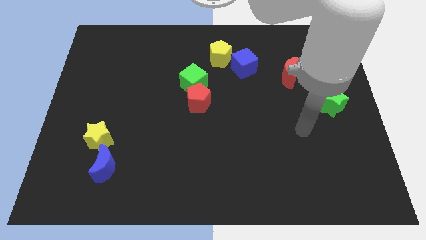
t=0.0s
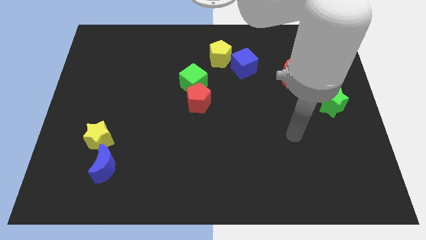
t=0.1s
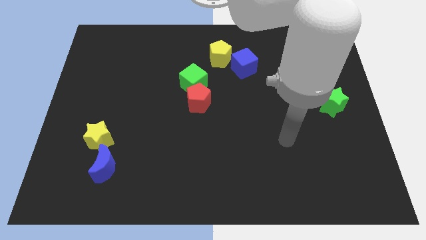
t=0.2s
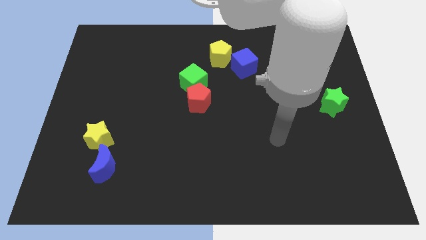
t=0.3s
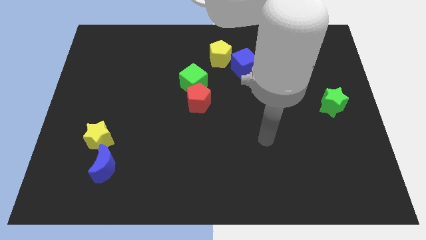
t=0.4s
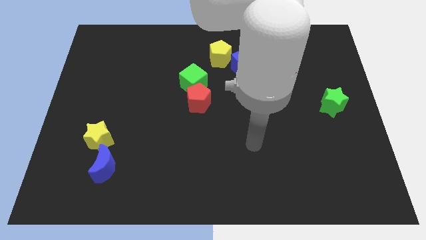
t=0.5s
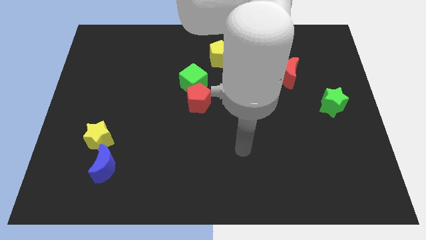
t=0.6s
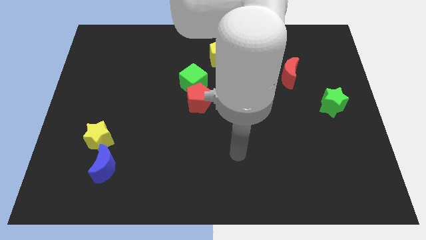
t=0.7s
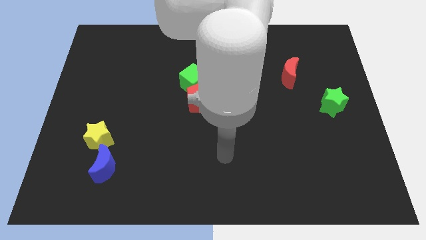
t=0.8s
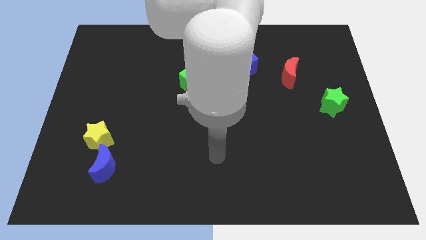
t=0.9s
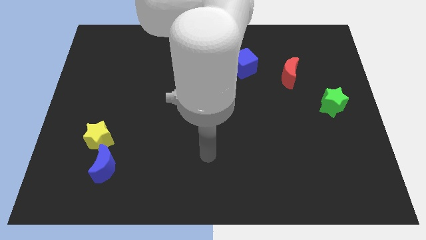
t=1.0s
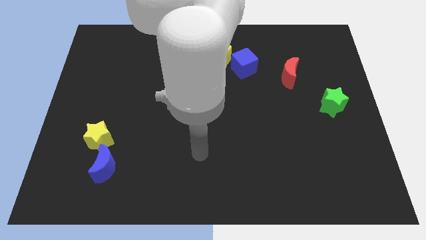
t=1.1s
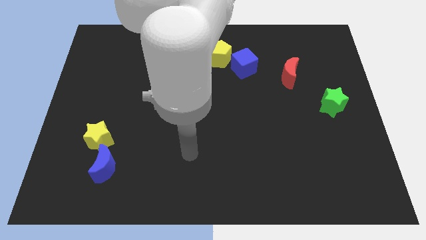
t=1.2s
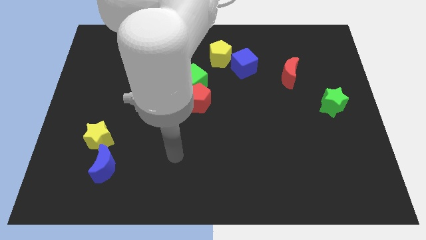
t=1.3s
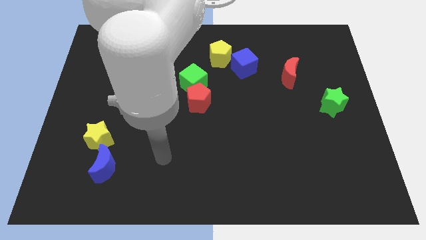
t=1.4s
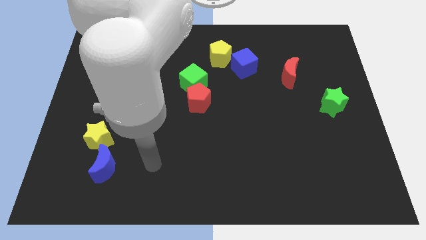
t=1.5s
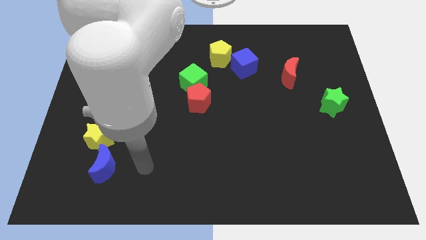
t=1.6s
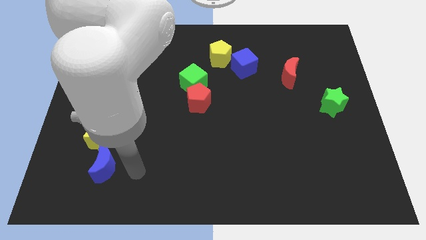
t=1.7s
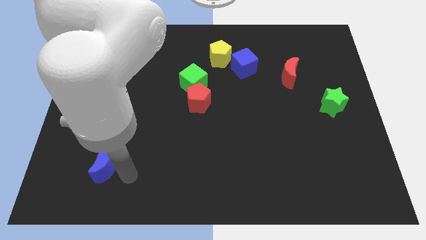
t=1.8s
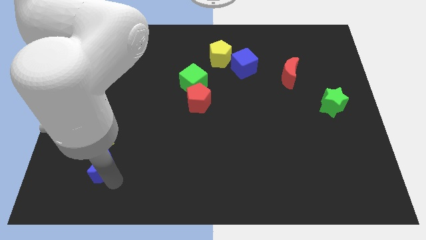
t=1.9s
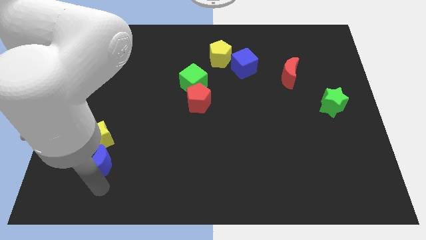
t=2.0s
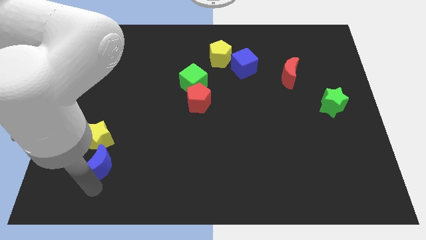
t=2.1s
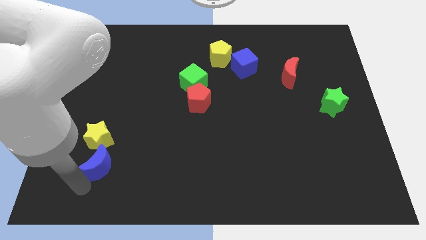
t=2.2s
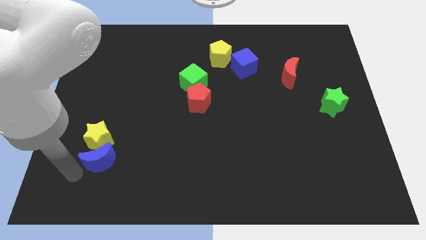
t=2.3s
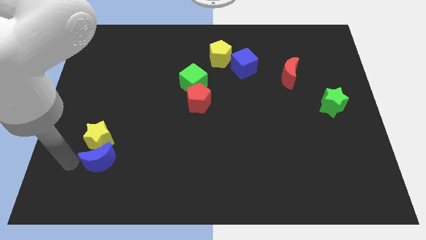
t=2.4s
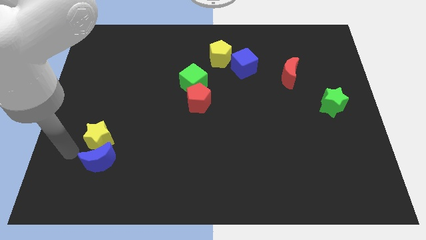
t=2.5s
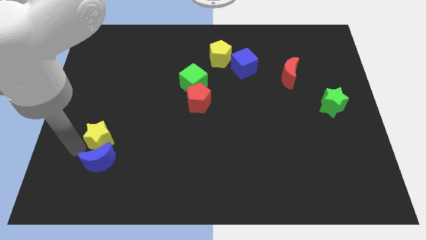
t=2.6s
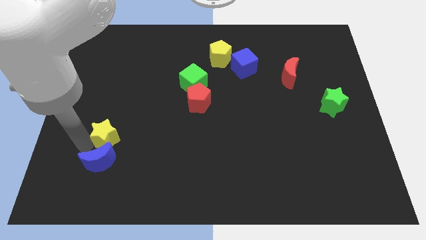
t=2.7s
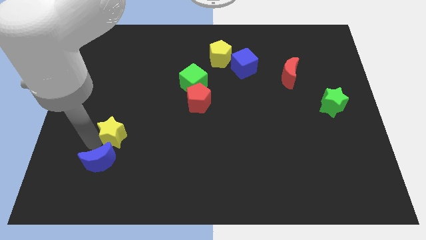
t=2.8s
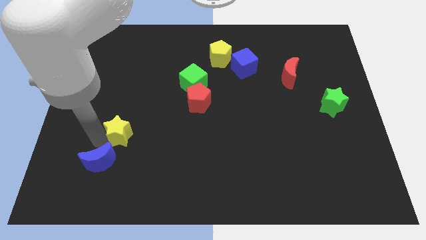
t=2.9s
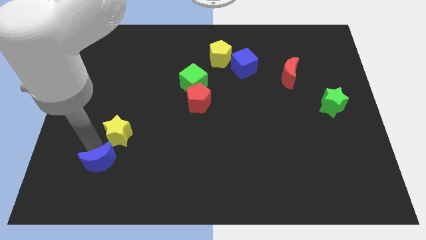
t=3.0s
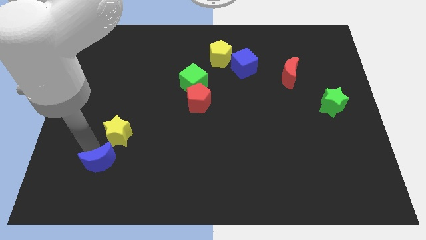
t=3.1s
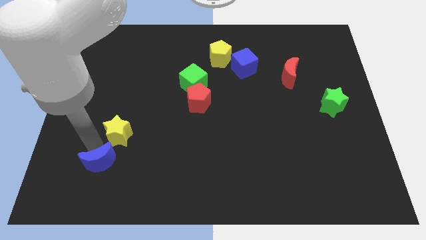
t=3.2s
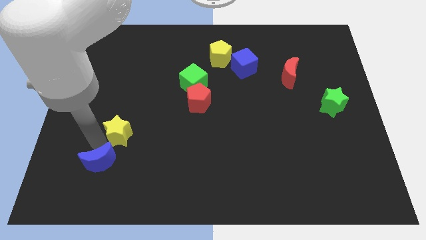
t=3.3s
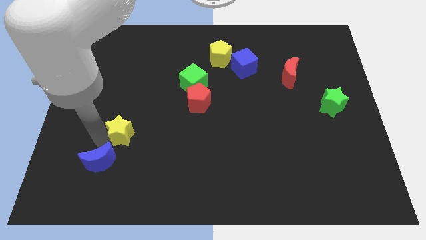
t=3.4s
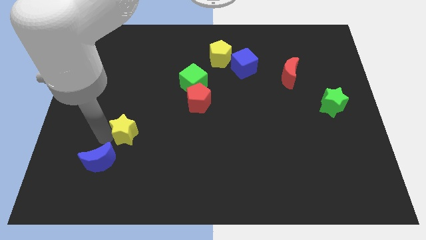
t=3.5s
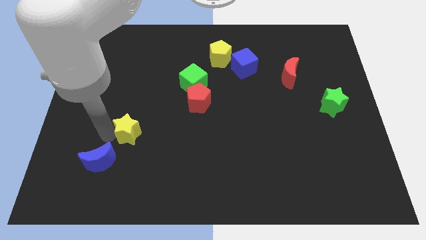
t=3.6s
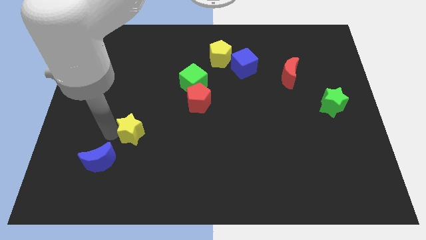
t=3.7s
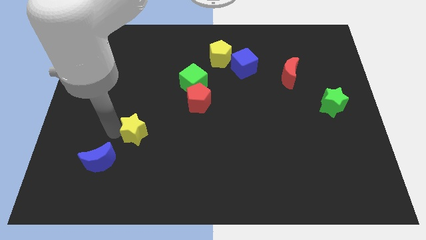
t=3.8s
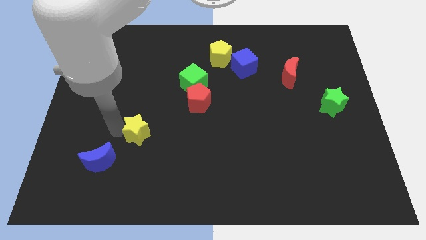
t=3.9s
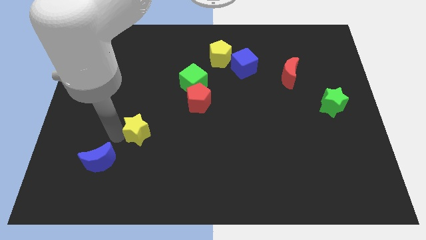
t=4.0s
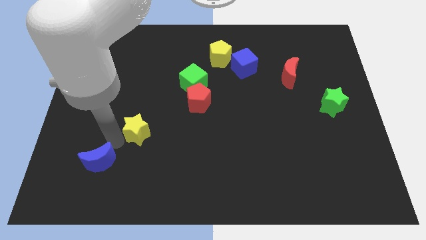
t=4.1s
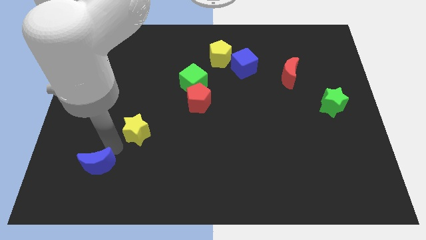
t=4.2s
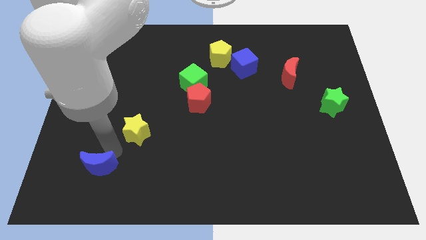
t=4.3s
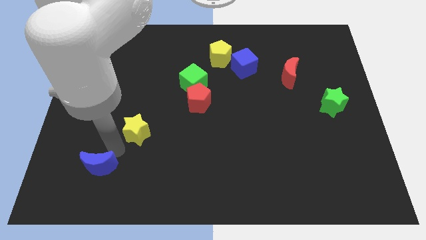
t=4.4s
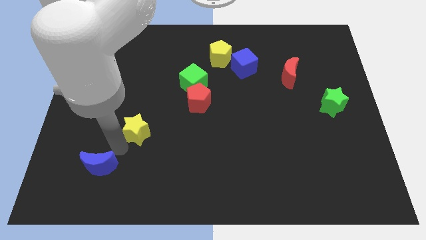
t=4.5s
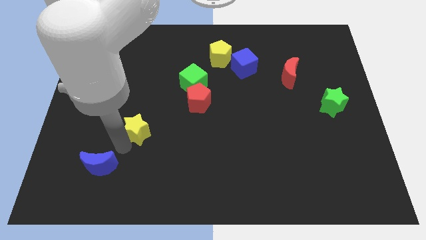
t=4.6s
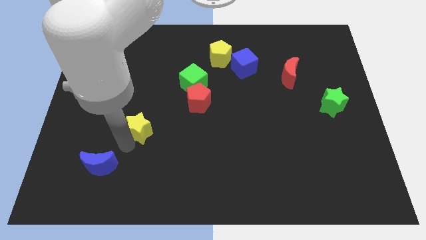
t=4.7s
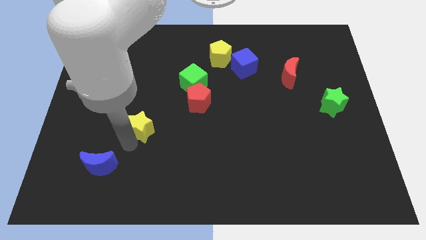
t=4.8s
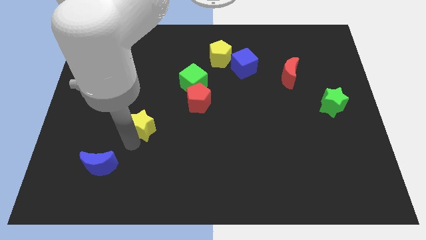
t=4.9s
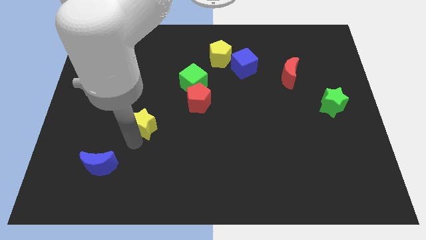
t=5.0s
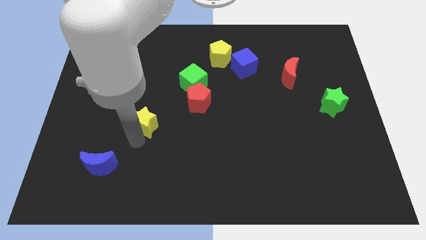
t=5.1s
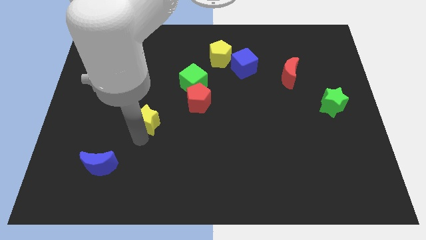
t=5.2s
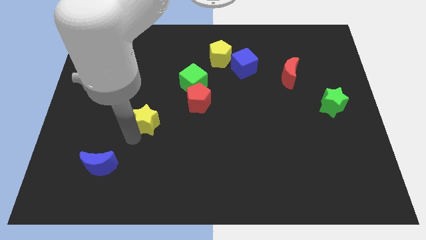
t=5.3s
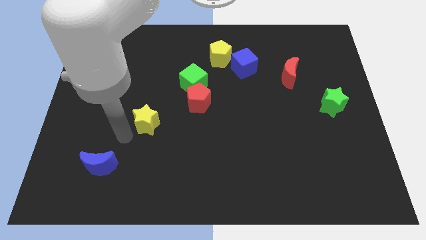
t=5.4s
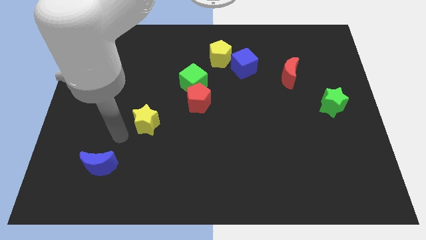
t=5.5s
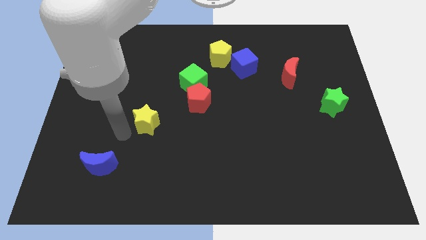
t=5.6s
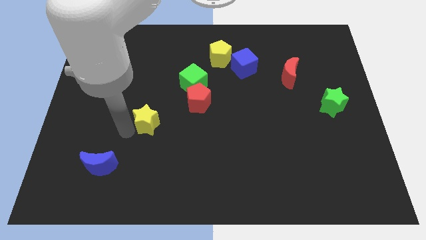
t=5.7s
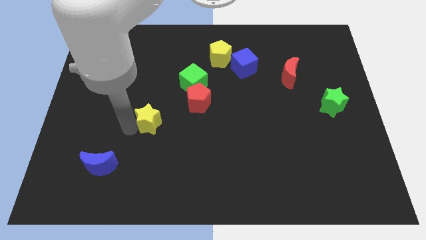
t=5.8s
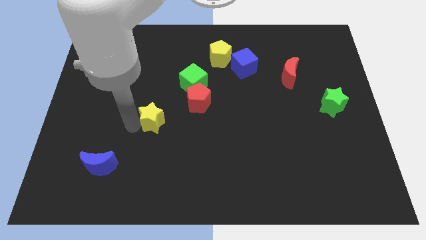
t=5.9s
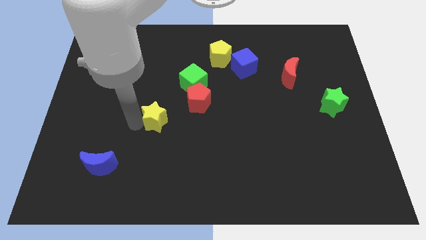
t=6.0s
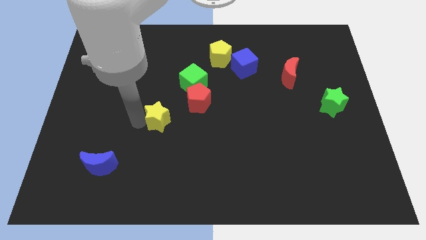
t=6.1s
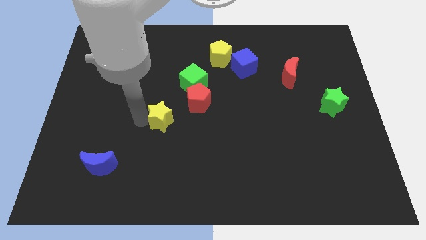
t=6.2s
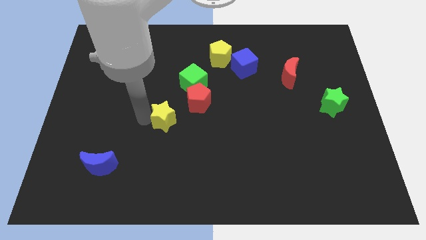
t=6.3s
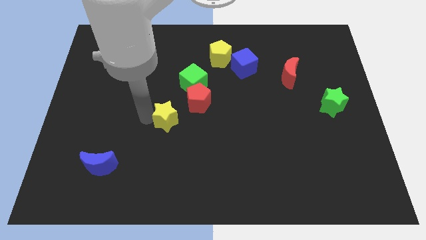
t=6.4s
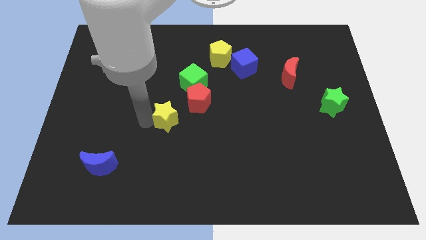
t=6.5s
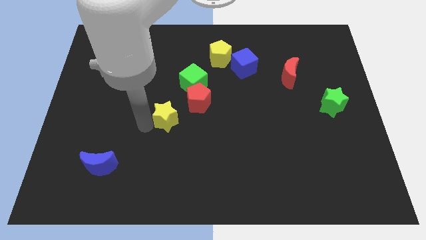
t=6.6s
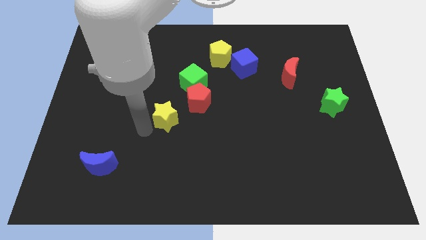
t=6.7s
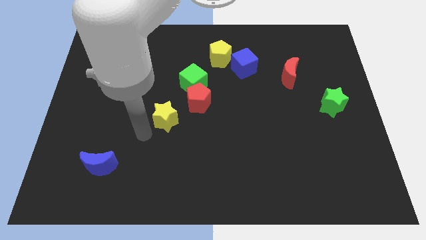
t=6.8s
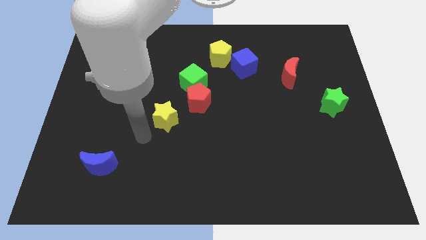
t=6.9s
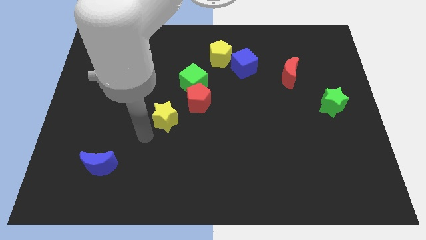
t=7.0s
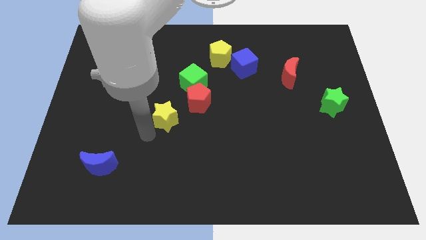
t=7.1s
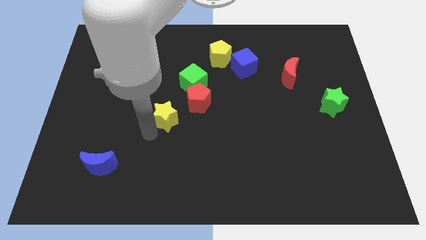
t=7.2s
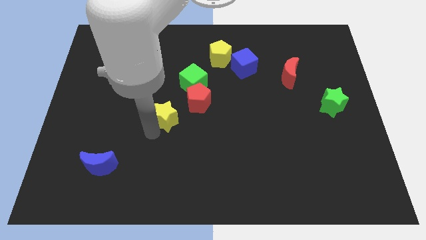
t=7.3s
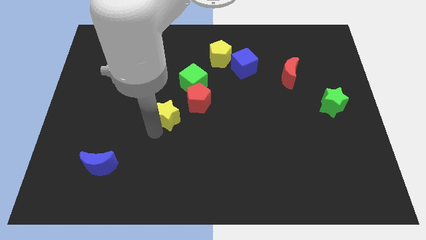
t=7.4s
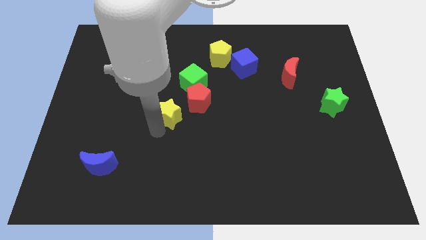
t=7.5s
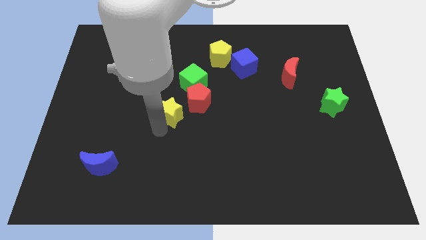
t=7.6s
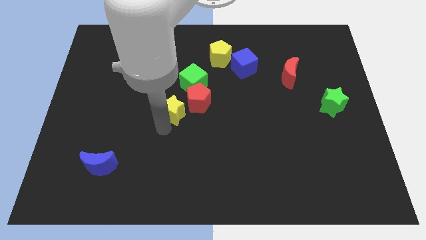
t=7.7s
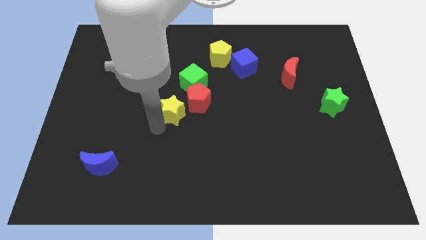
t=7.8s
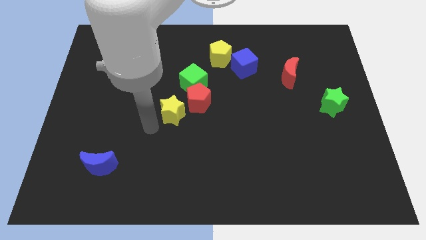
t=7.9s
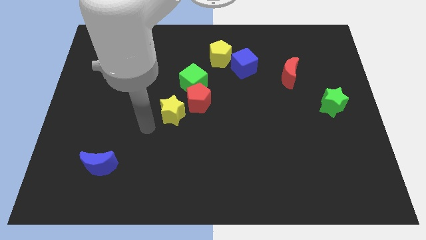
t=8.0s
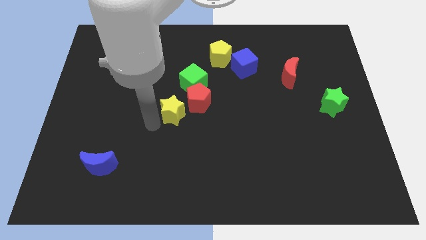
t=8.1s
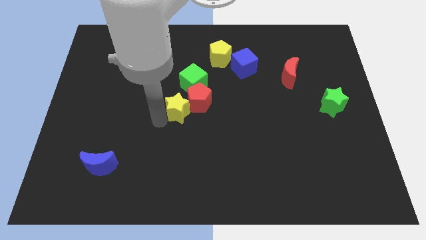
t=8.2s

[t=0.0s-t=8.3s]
push the yellow star to the red pentagon
